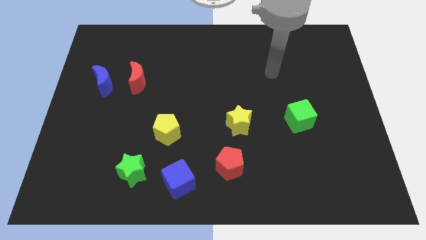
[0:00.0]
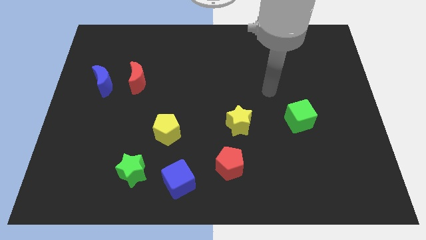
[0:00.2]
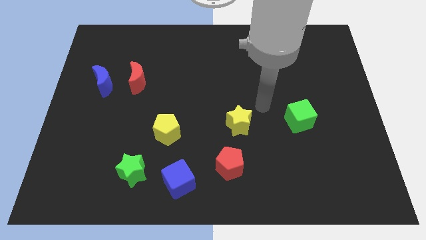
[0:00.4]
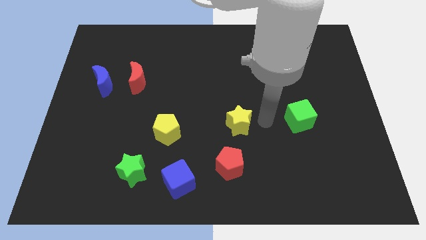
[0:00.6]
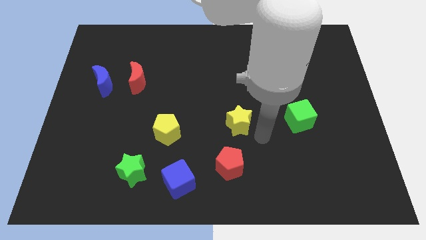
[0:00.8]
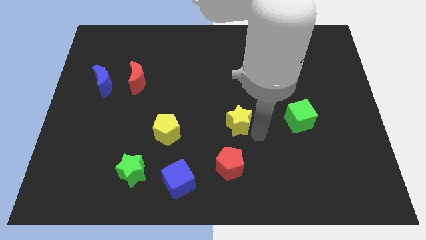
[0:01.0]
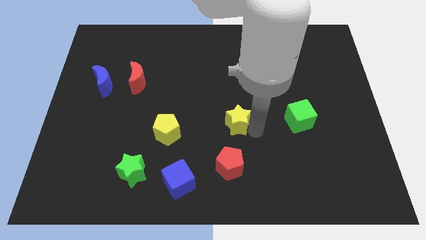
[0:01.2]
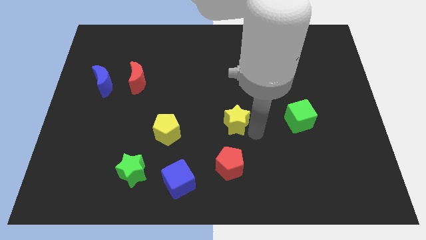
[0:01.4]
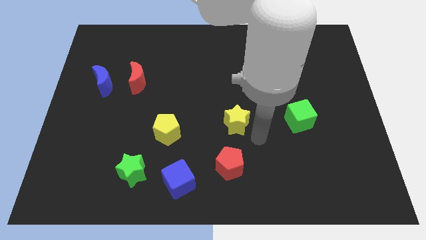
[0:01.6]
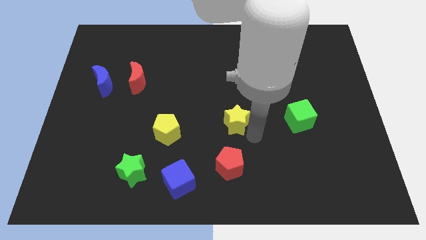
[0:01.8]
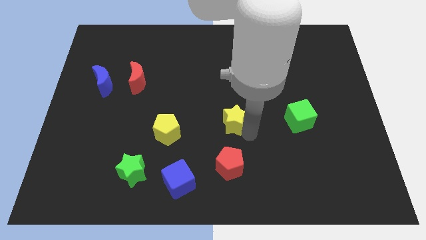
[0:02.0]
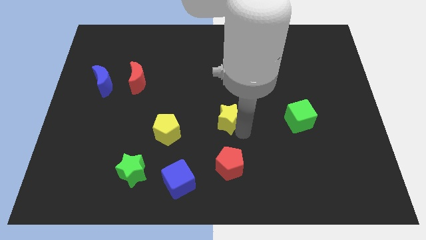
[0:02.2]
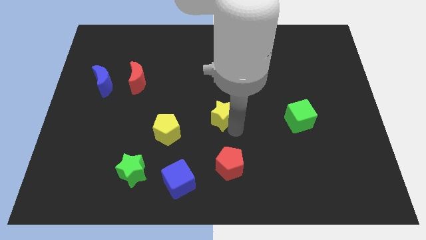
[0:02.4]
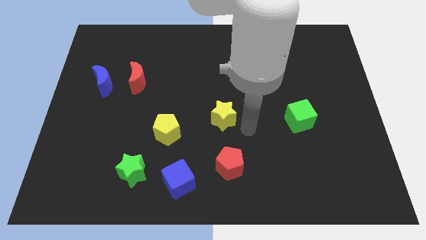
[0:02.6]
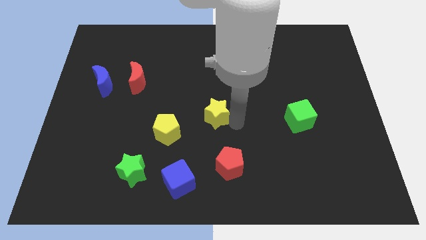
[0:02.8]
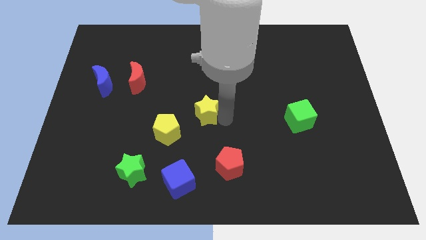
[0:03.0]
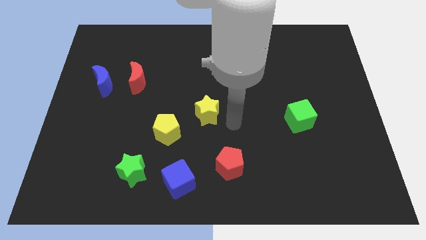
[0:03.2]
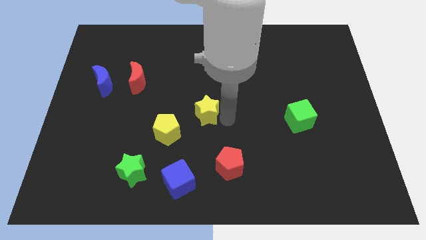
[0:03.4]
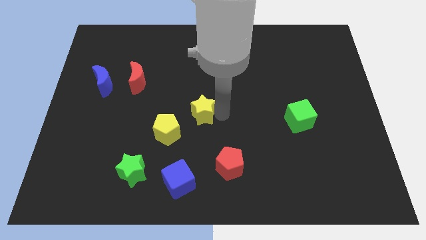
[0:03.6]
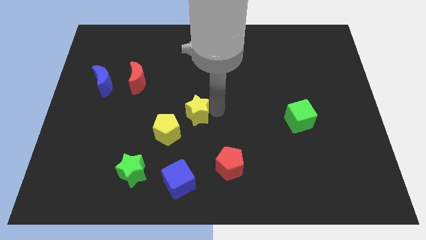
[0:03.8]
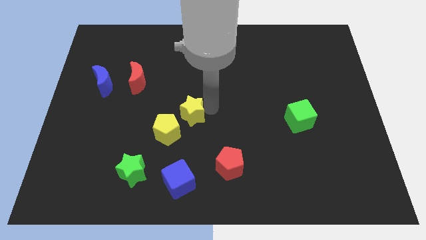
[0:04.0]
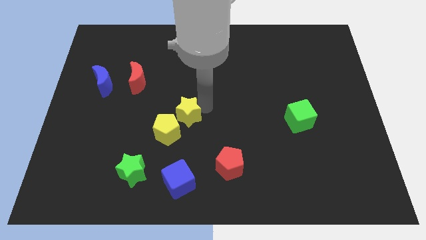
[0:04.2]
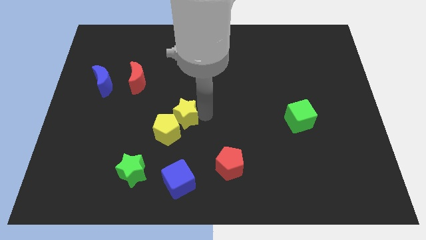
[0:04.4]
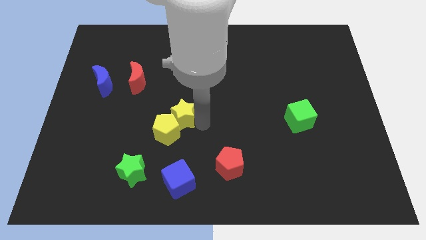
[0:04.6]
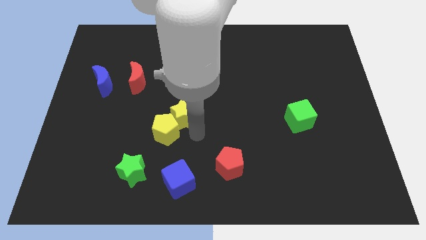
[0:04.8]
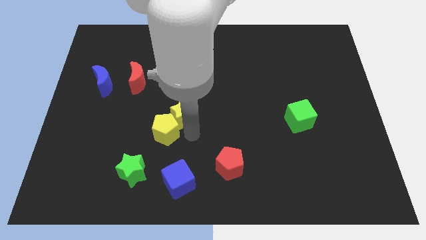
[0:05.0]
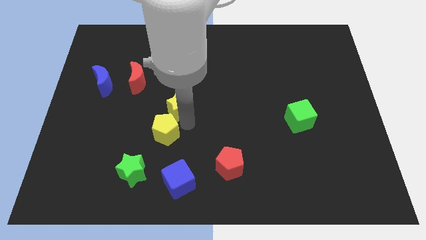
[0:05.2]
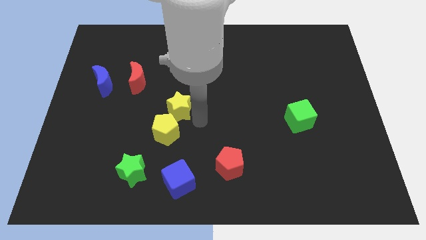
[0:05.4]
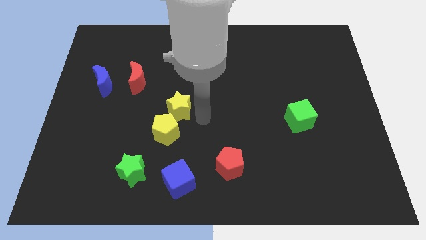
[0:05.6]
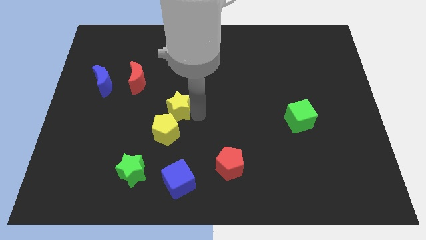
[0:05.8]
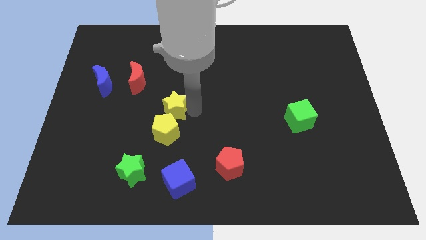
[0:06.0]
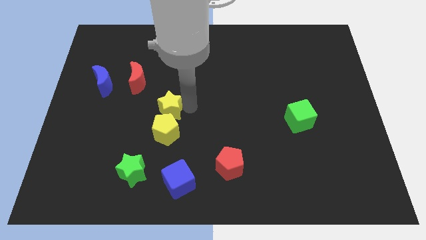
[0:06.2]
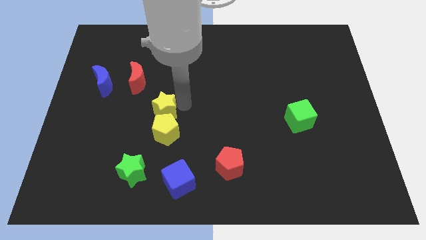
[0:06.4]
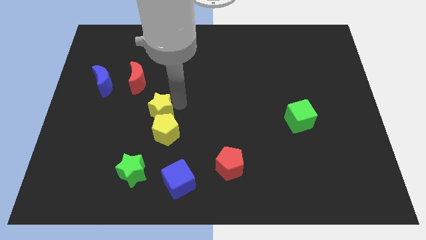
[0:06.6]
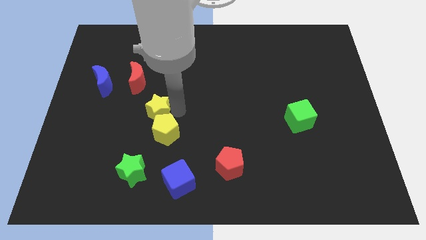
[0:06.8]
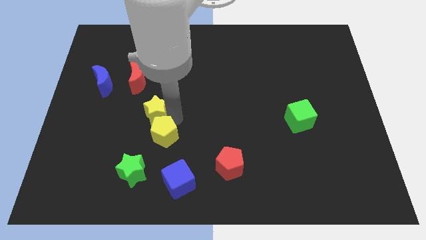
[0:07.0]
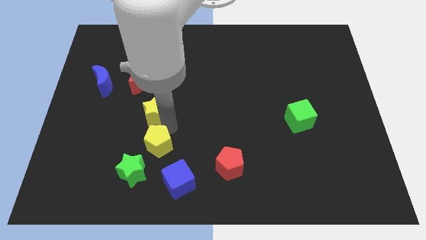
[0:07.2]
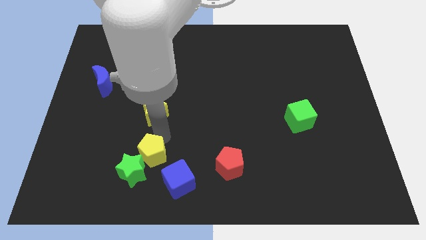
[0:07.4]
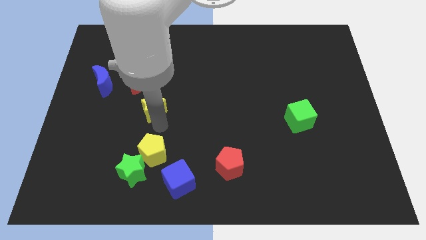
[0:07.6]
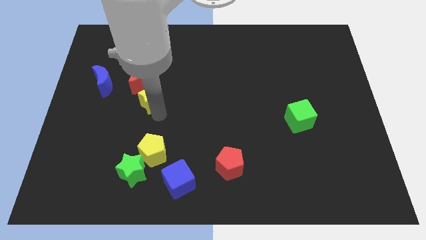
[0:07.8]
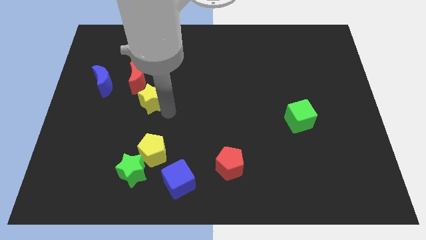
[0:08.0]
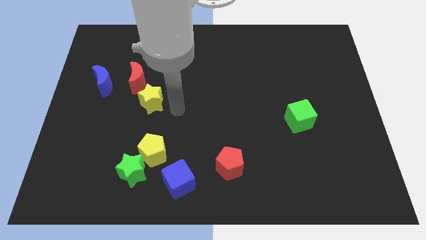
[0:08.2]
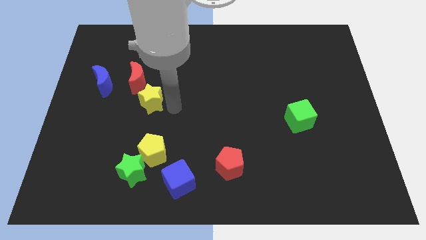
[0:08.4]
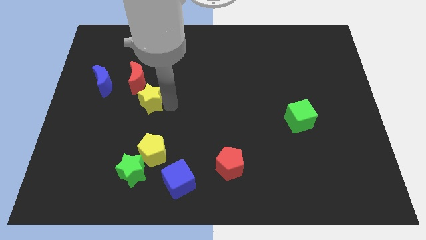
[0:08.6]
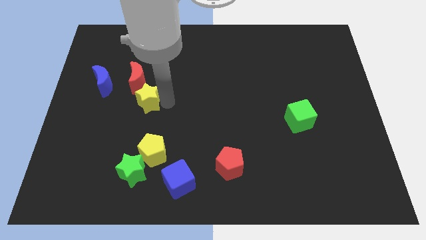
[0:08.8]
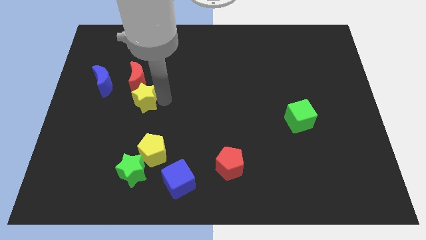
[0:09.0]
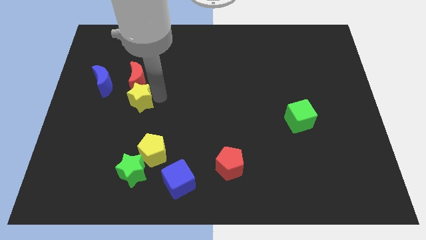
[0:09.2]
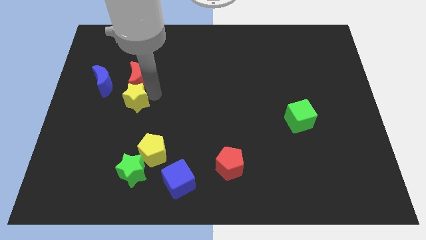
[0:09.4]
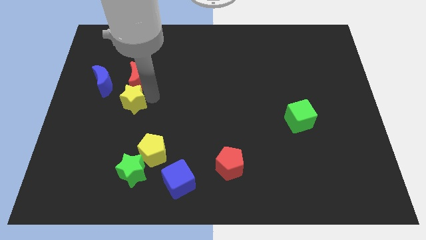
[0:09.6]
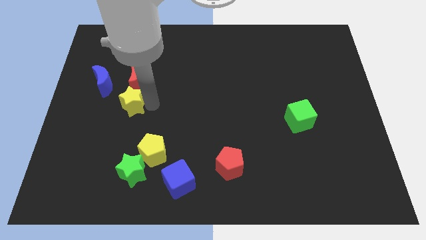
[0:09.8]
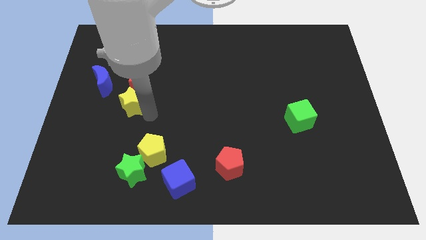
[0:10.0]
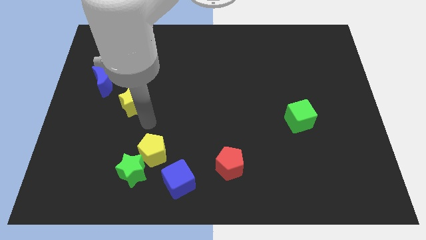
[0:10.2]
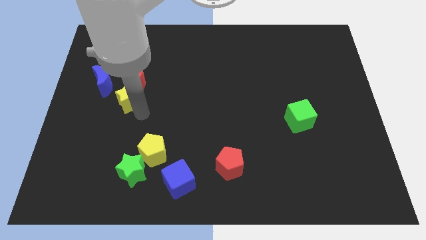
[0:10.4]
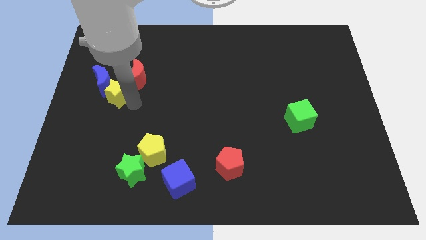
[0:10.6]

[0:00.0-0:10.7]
put the yellow star close to the blue moon

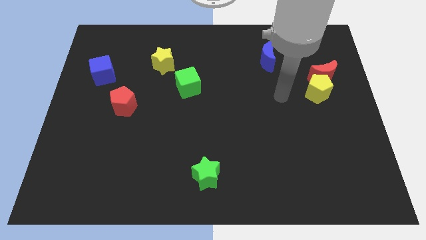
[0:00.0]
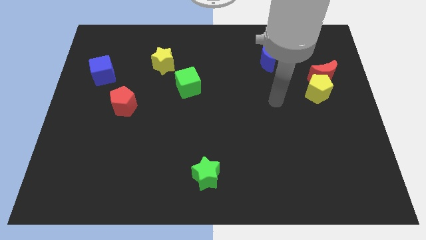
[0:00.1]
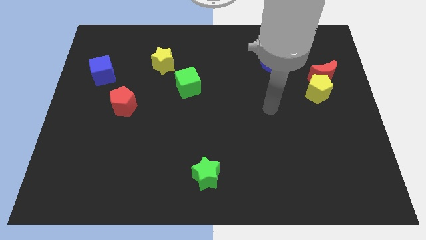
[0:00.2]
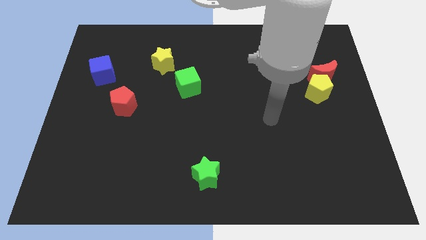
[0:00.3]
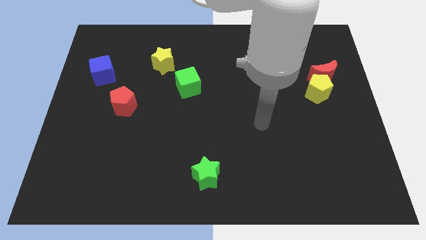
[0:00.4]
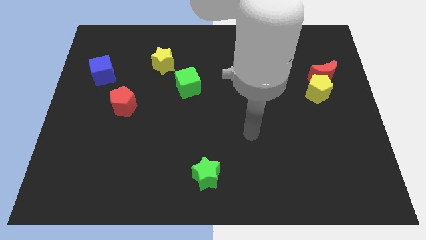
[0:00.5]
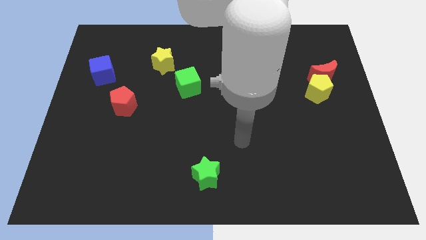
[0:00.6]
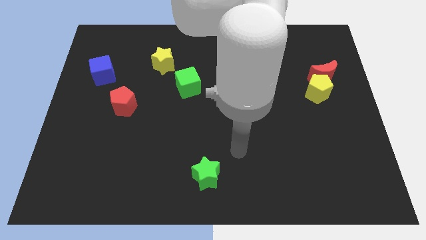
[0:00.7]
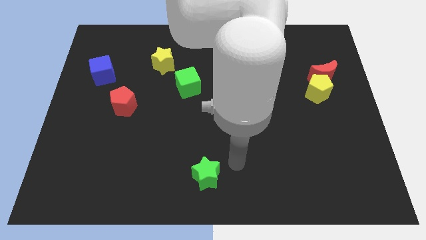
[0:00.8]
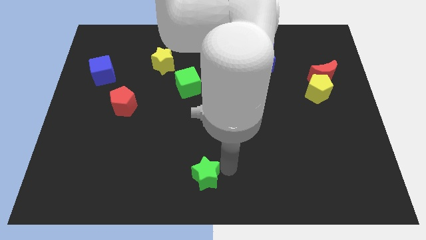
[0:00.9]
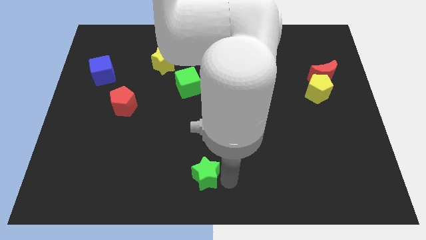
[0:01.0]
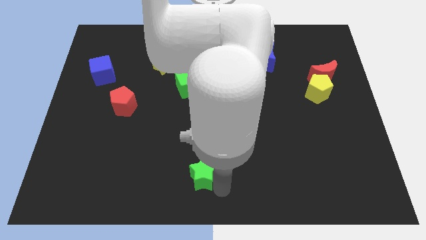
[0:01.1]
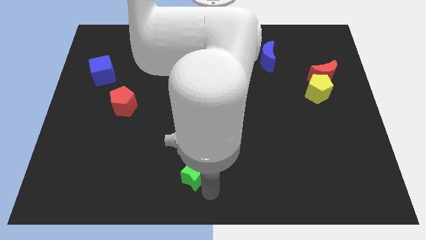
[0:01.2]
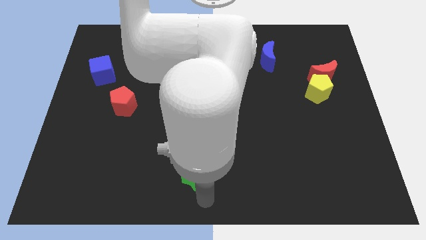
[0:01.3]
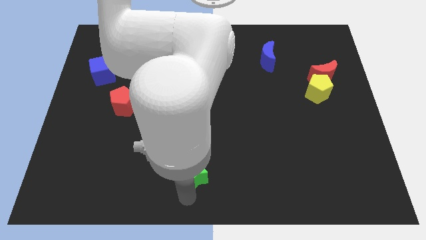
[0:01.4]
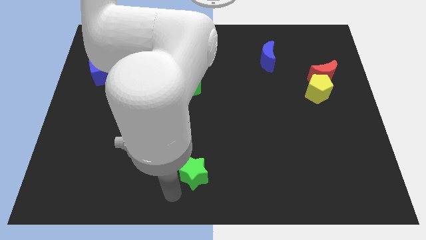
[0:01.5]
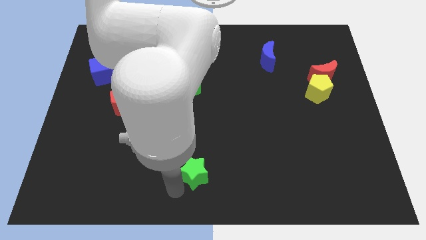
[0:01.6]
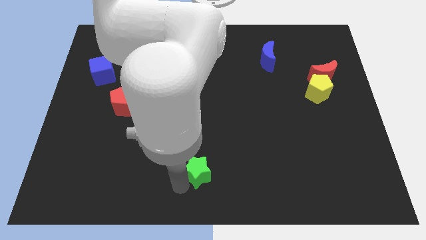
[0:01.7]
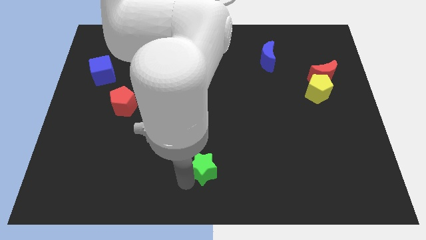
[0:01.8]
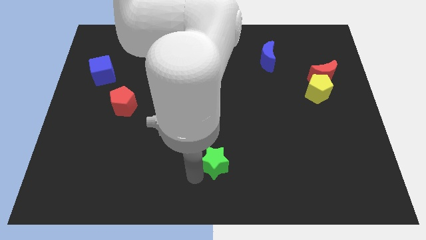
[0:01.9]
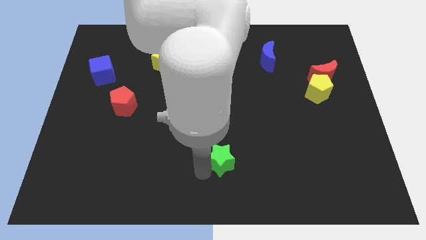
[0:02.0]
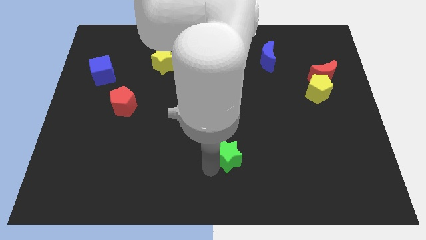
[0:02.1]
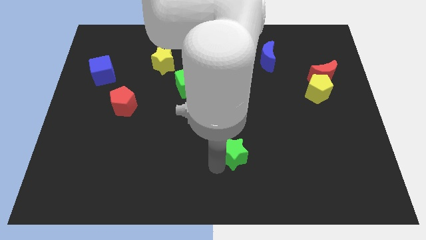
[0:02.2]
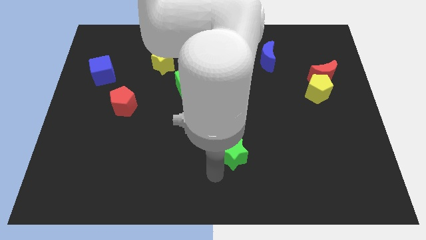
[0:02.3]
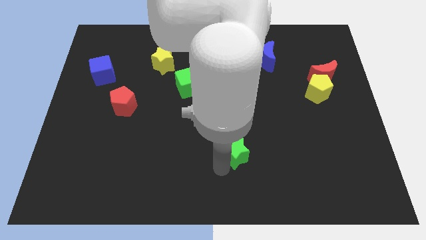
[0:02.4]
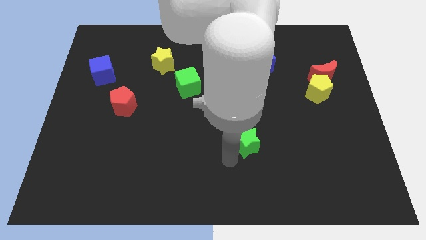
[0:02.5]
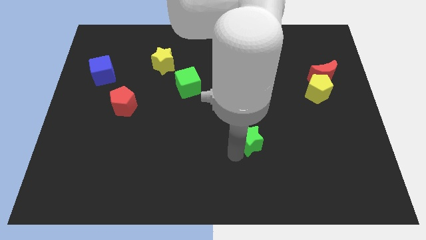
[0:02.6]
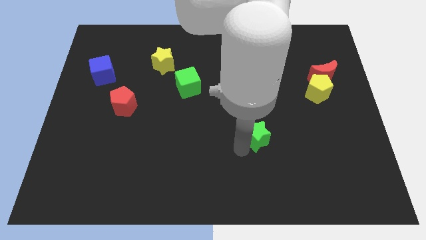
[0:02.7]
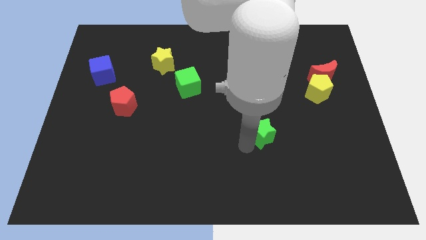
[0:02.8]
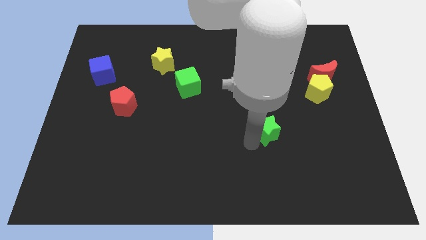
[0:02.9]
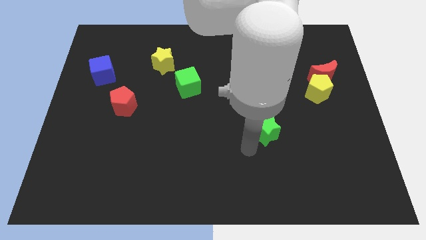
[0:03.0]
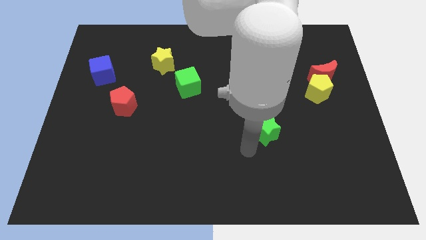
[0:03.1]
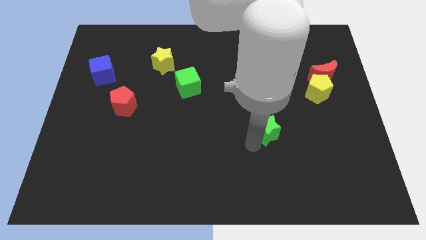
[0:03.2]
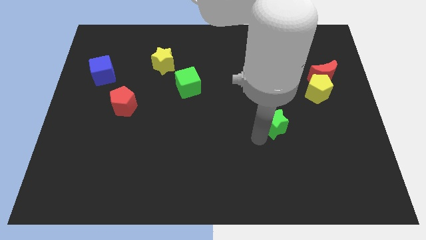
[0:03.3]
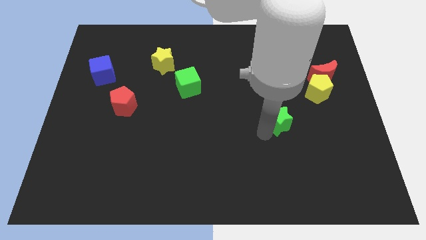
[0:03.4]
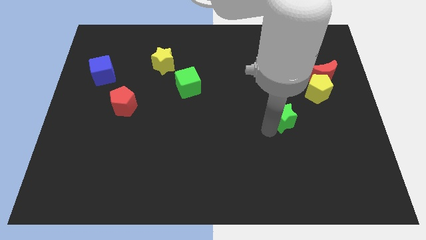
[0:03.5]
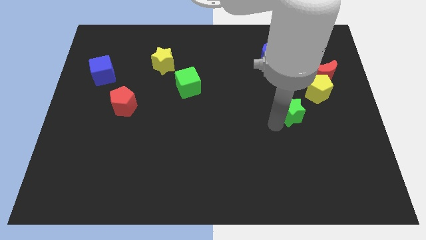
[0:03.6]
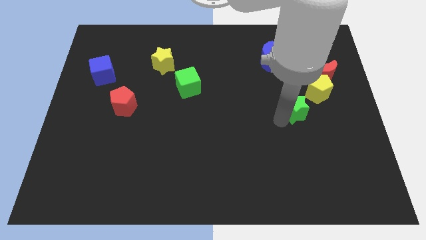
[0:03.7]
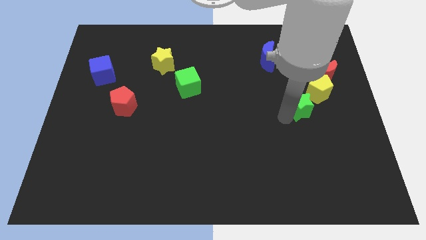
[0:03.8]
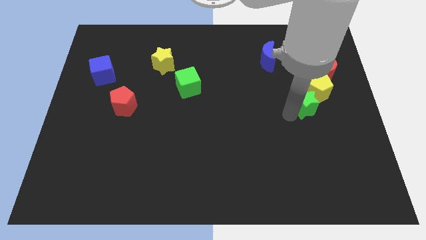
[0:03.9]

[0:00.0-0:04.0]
put the green star towards the yellow pentagon
